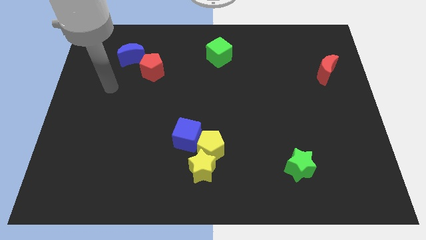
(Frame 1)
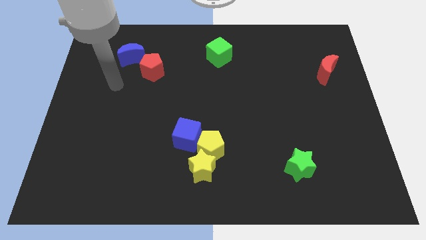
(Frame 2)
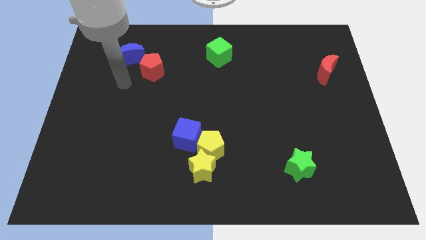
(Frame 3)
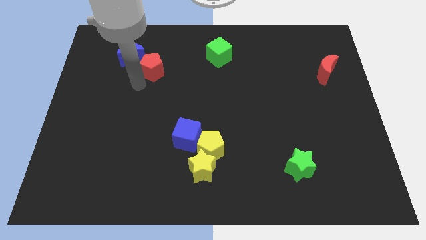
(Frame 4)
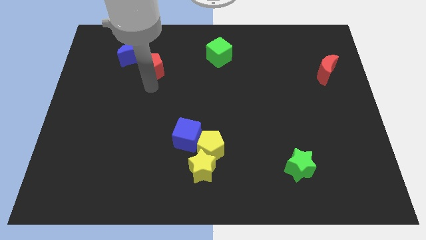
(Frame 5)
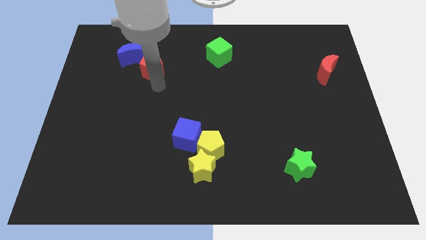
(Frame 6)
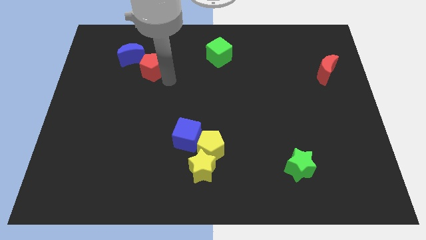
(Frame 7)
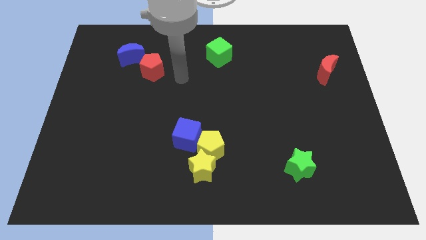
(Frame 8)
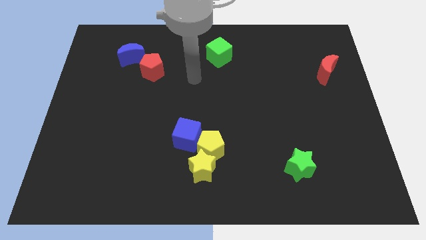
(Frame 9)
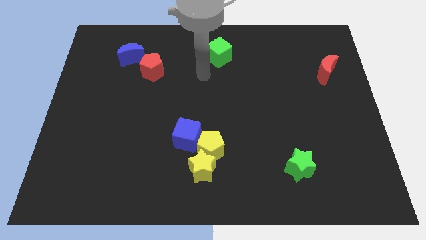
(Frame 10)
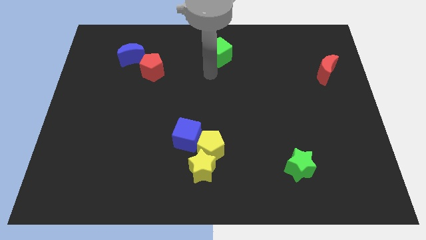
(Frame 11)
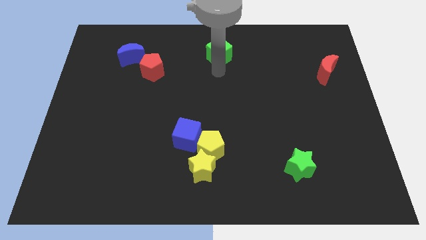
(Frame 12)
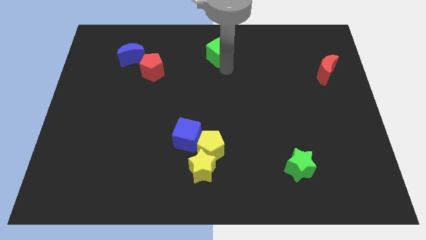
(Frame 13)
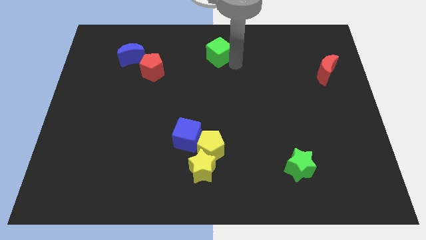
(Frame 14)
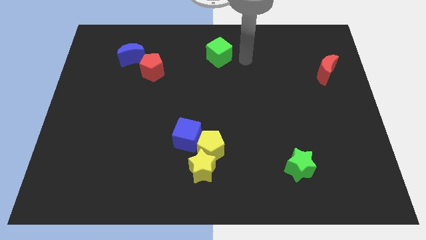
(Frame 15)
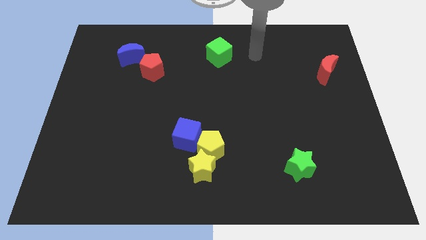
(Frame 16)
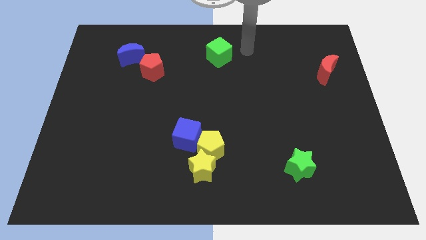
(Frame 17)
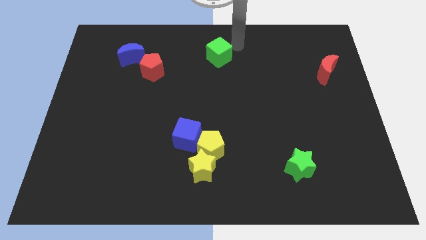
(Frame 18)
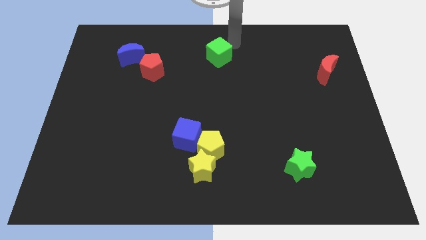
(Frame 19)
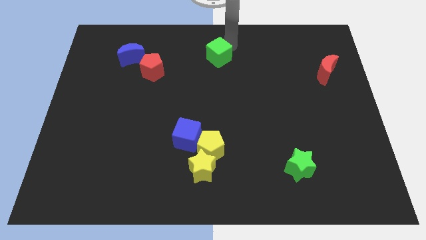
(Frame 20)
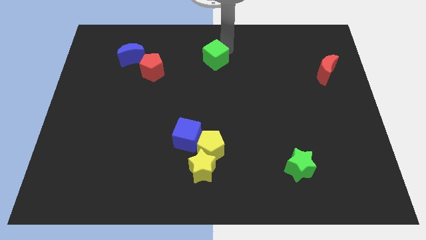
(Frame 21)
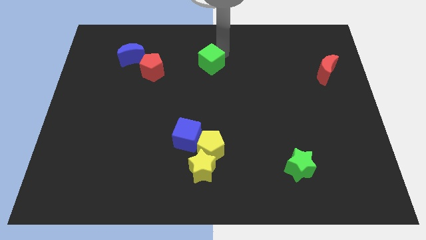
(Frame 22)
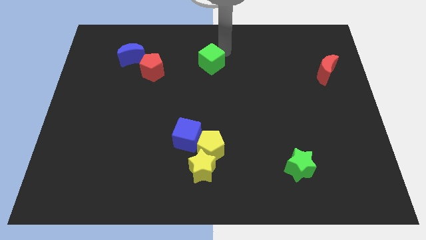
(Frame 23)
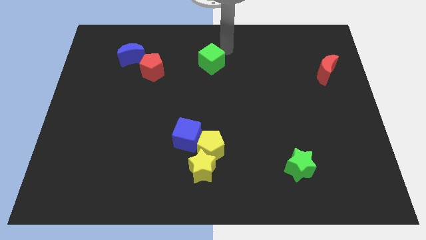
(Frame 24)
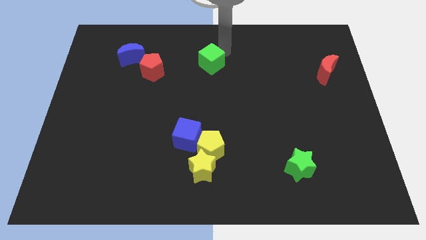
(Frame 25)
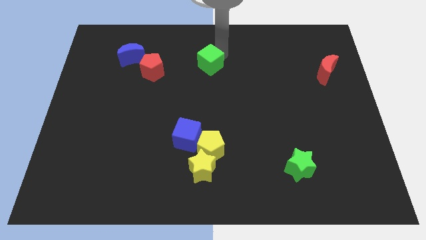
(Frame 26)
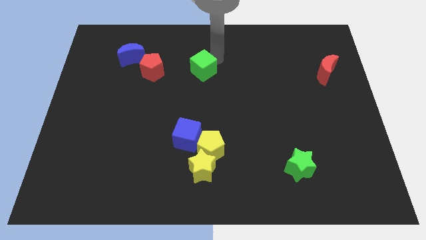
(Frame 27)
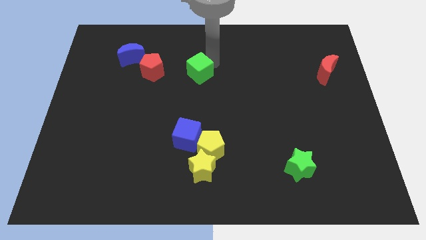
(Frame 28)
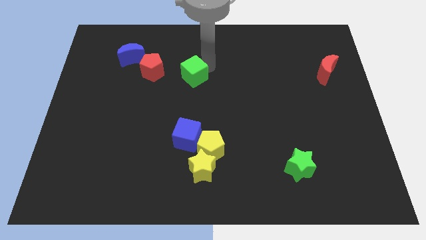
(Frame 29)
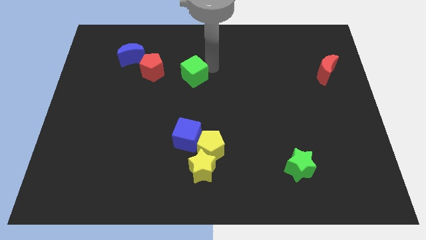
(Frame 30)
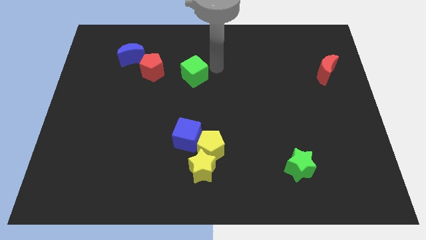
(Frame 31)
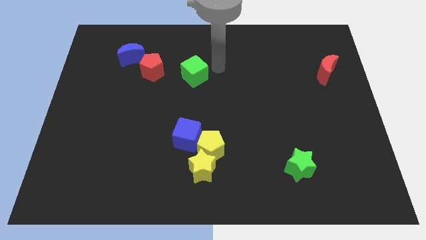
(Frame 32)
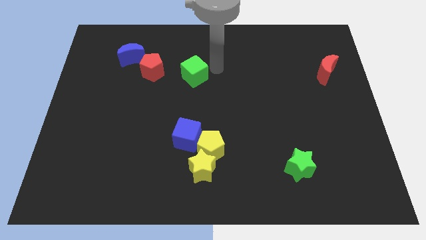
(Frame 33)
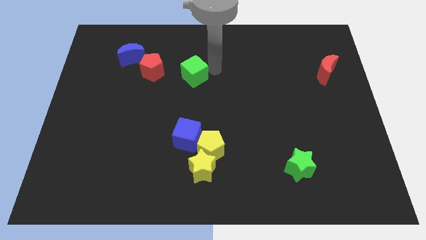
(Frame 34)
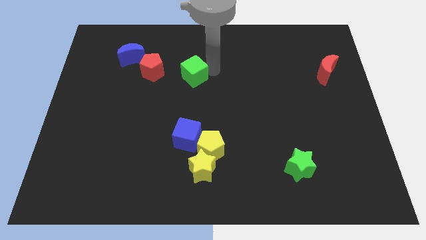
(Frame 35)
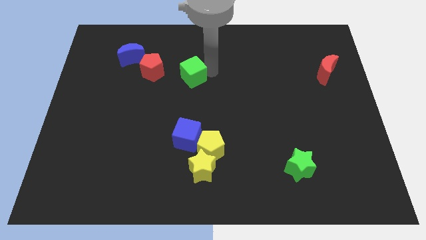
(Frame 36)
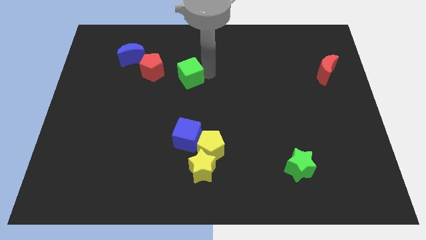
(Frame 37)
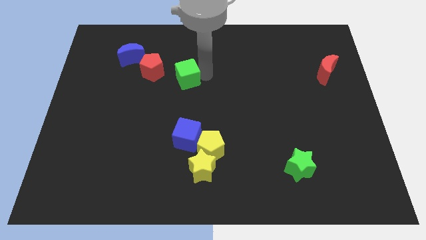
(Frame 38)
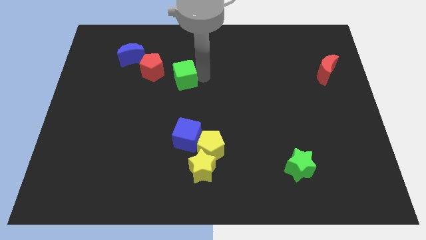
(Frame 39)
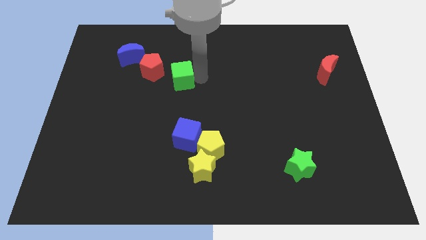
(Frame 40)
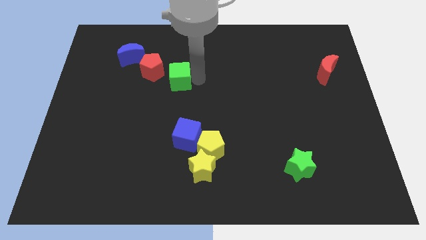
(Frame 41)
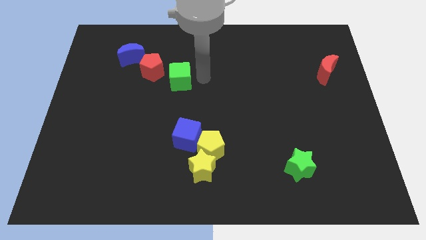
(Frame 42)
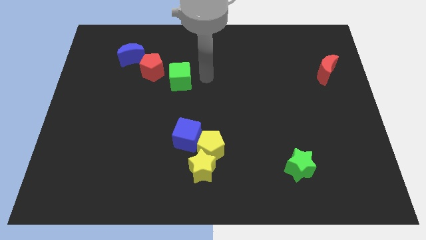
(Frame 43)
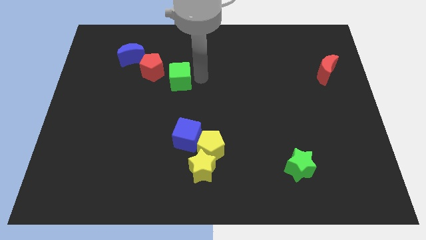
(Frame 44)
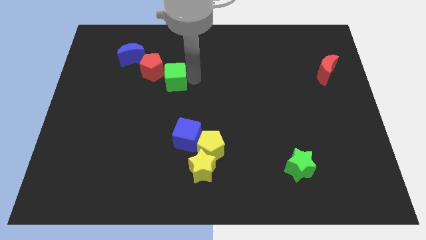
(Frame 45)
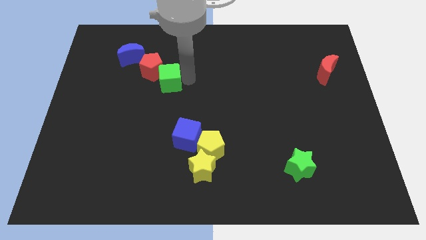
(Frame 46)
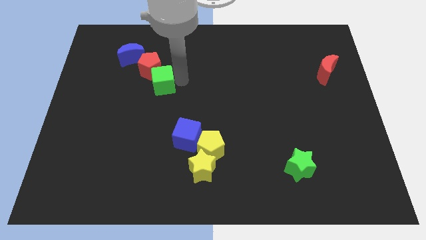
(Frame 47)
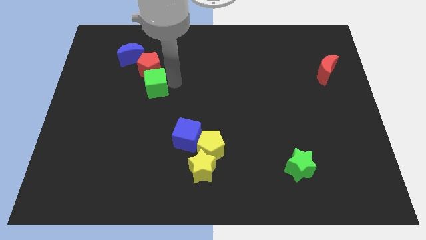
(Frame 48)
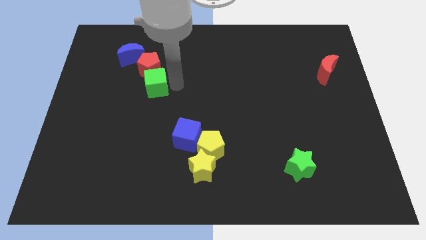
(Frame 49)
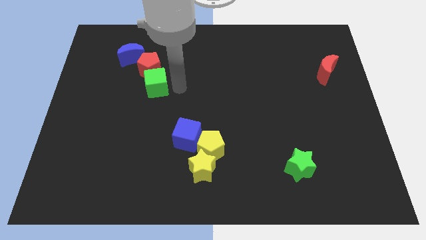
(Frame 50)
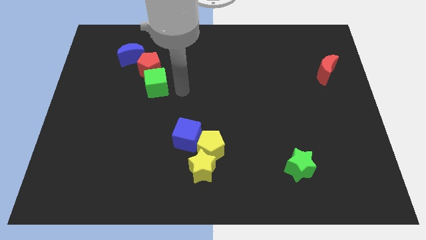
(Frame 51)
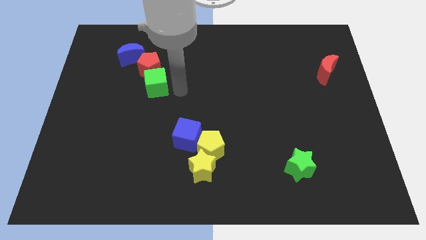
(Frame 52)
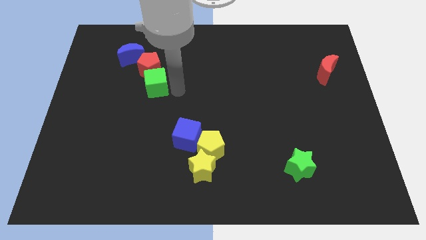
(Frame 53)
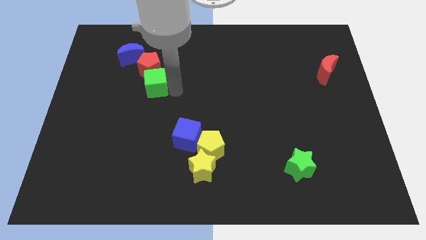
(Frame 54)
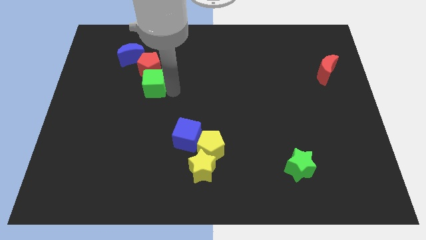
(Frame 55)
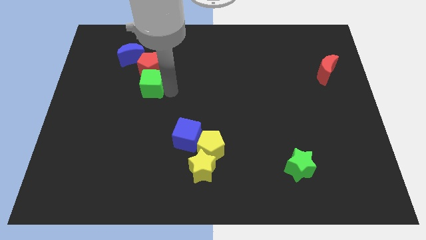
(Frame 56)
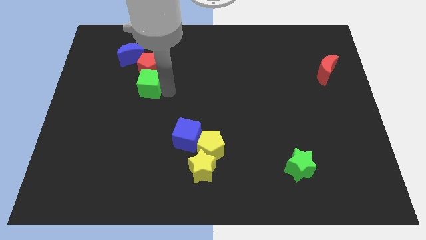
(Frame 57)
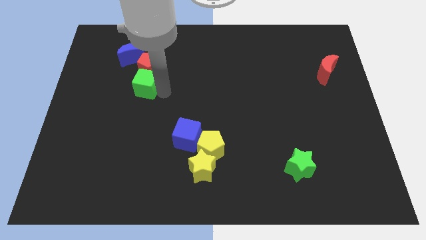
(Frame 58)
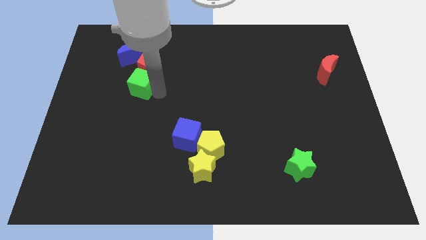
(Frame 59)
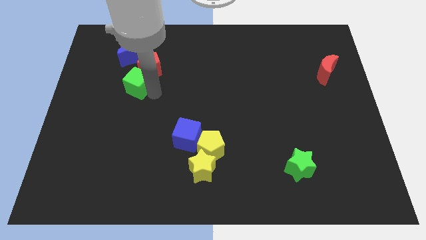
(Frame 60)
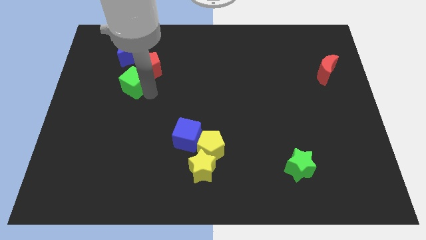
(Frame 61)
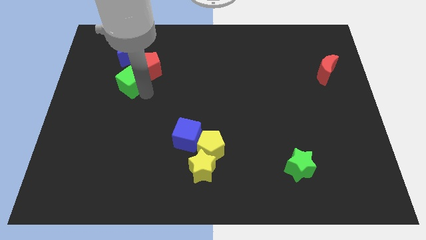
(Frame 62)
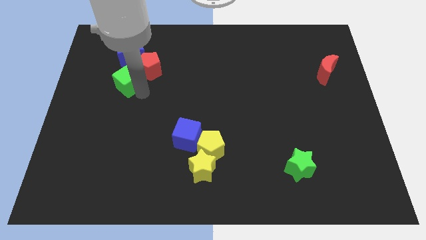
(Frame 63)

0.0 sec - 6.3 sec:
push the green cube just left of the red pentagon

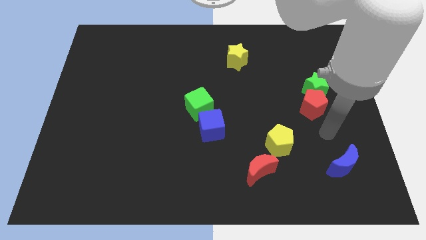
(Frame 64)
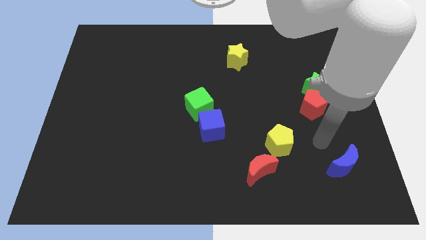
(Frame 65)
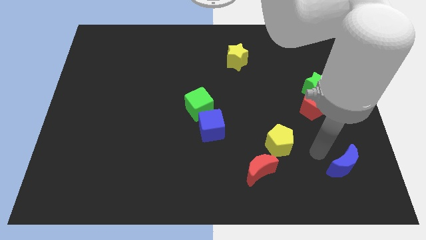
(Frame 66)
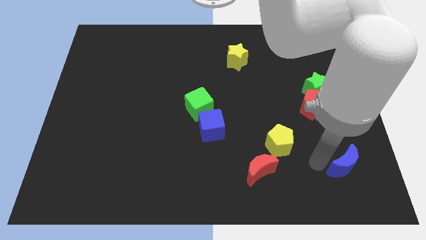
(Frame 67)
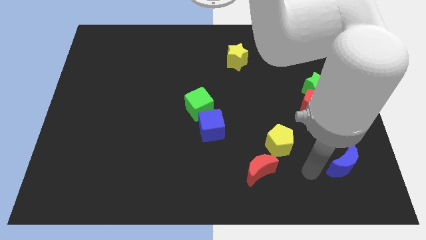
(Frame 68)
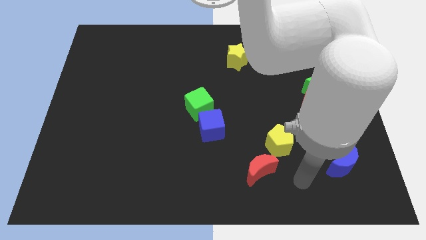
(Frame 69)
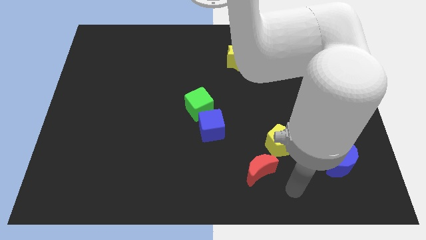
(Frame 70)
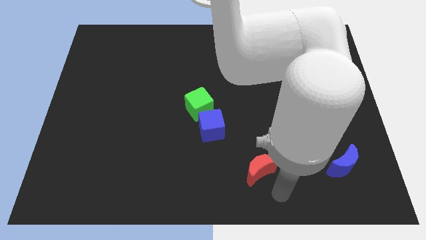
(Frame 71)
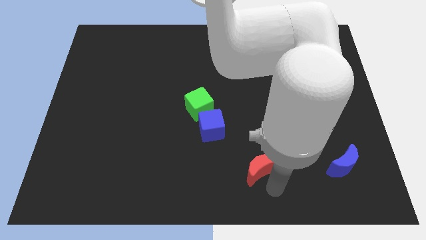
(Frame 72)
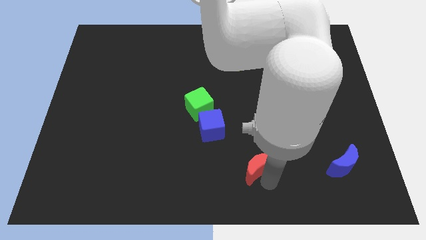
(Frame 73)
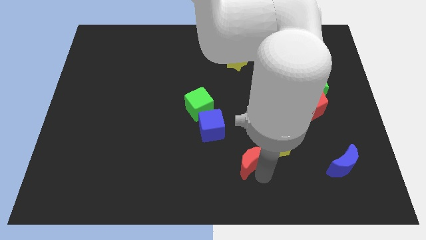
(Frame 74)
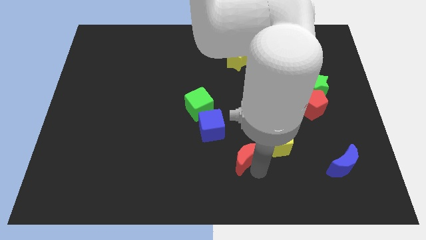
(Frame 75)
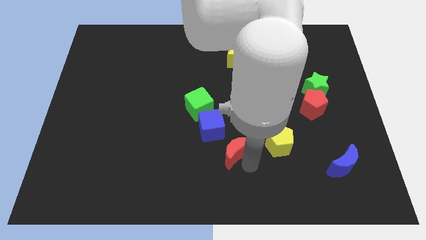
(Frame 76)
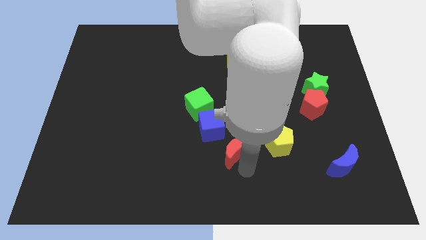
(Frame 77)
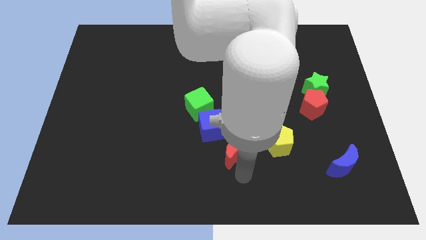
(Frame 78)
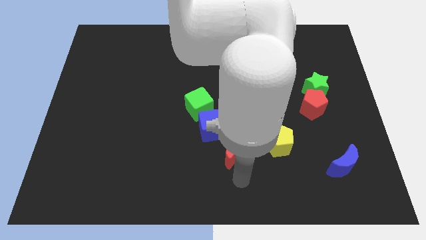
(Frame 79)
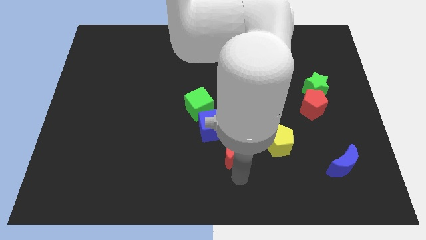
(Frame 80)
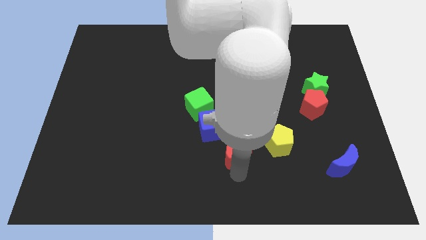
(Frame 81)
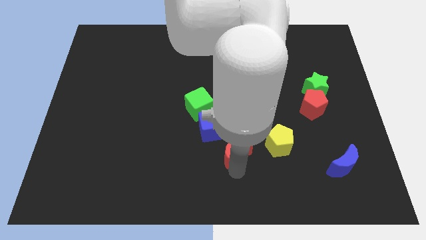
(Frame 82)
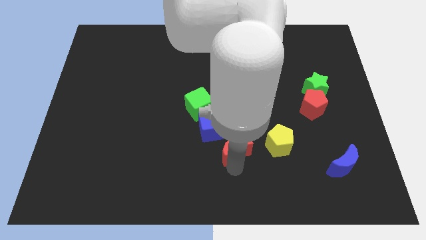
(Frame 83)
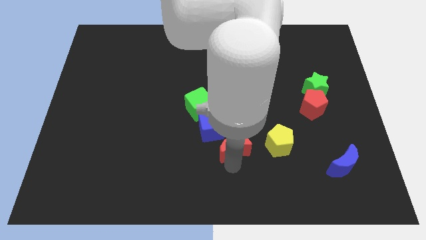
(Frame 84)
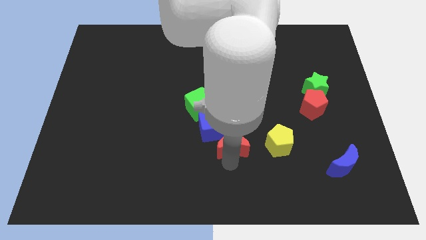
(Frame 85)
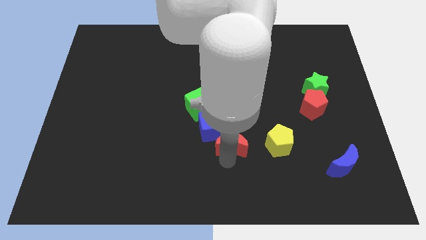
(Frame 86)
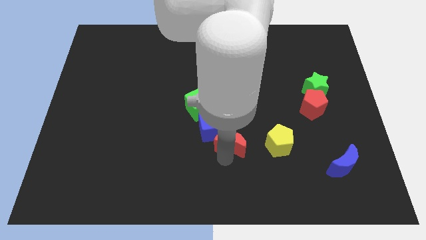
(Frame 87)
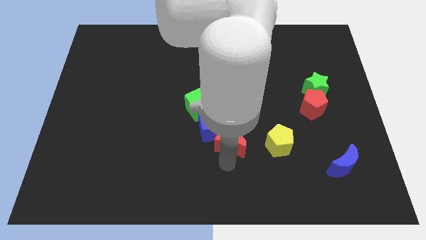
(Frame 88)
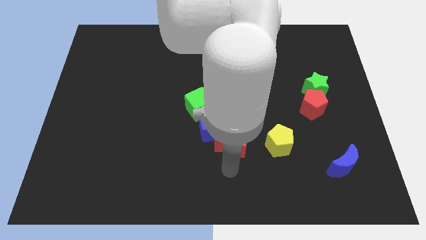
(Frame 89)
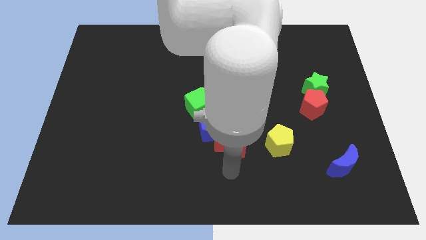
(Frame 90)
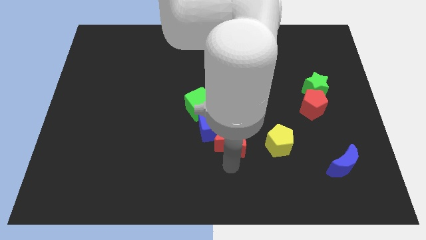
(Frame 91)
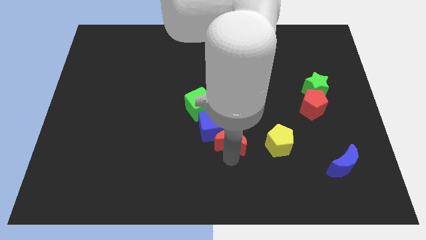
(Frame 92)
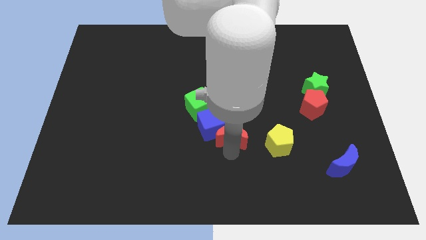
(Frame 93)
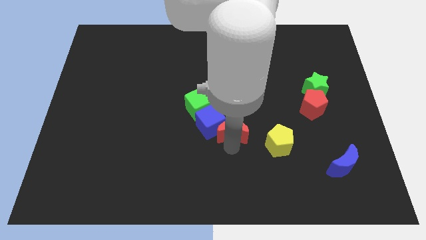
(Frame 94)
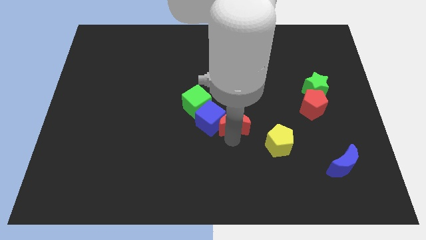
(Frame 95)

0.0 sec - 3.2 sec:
push the red moon to the top right of the blue cube
